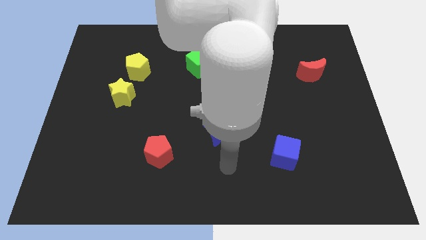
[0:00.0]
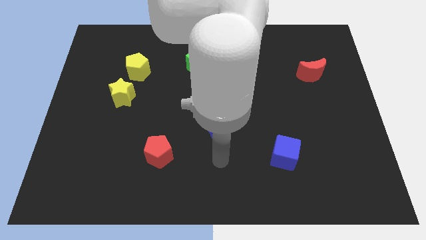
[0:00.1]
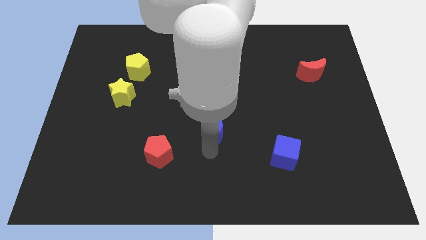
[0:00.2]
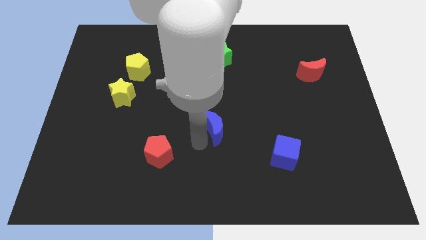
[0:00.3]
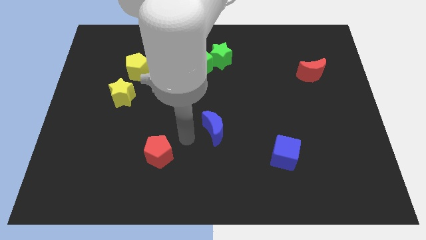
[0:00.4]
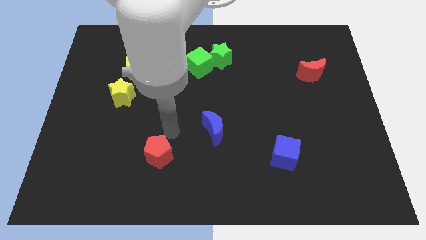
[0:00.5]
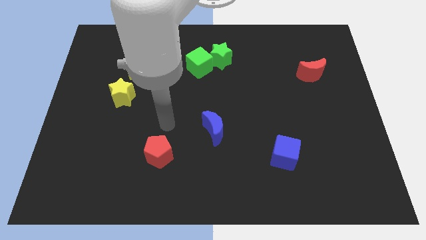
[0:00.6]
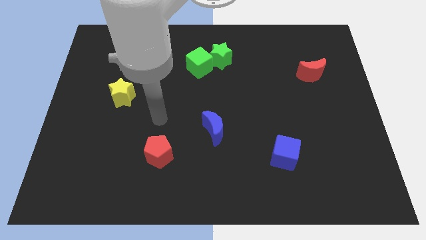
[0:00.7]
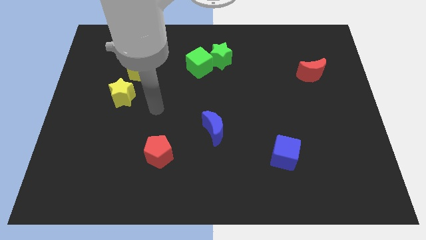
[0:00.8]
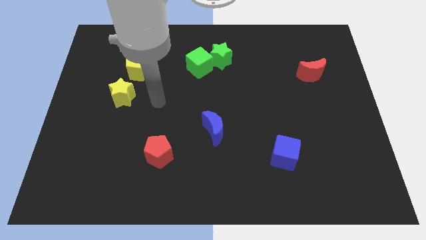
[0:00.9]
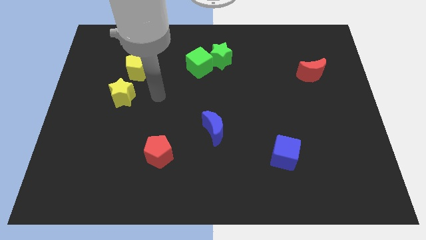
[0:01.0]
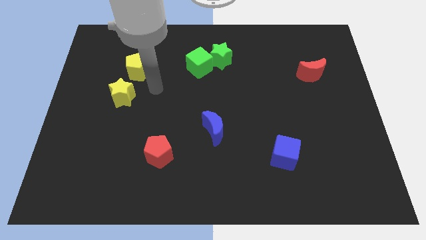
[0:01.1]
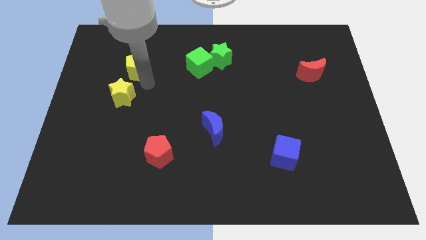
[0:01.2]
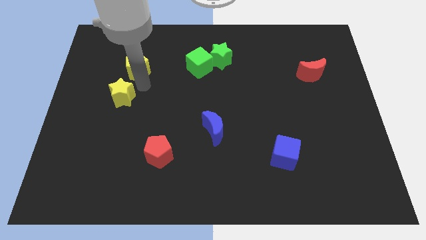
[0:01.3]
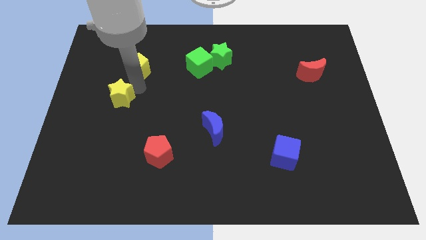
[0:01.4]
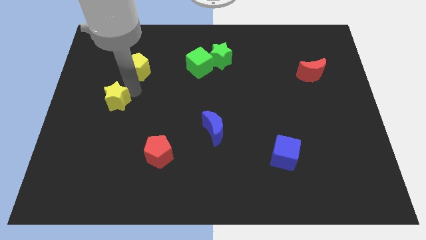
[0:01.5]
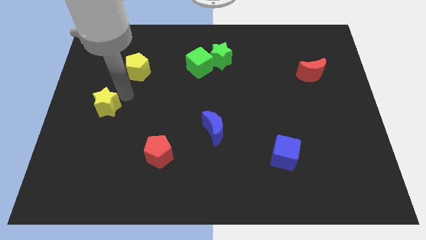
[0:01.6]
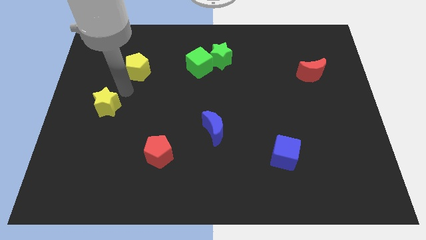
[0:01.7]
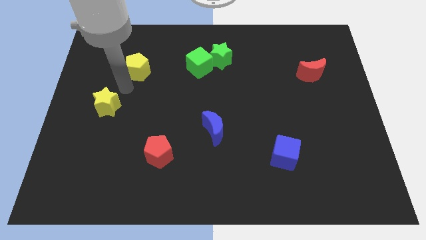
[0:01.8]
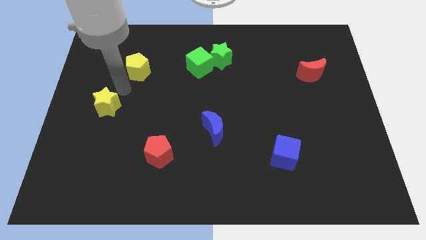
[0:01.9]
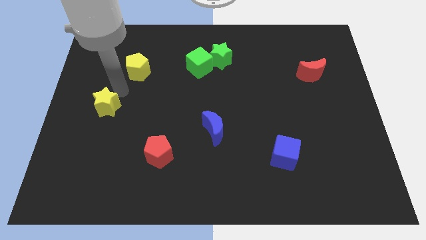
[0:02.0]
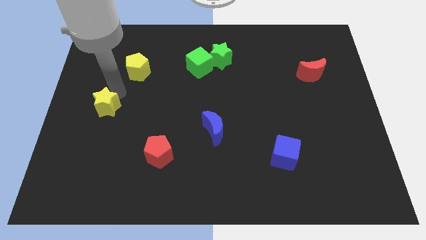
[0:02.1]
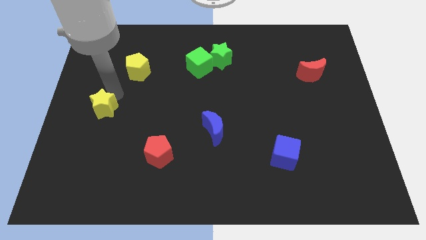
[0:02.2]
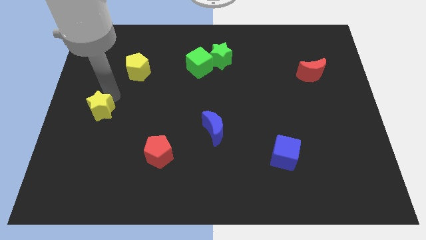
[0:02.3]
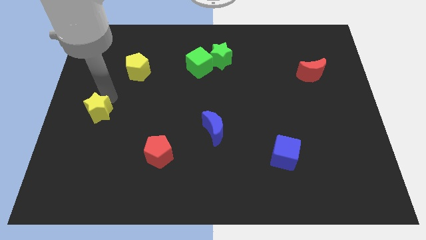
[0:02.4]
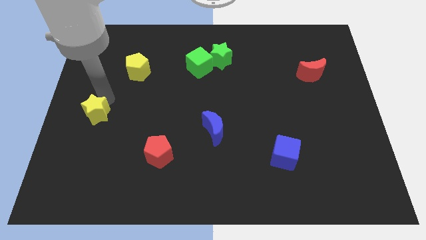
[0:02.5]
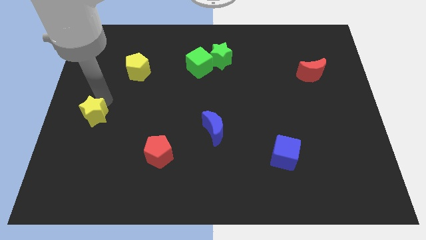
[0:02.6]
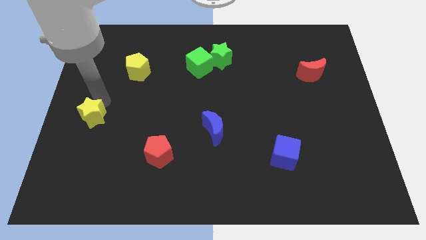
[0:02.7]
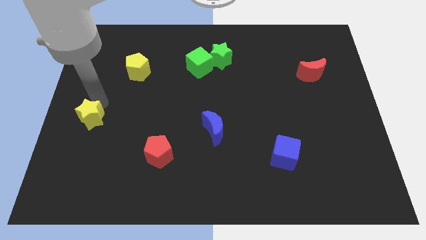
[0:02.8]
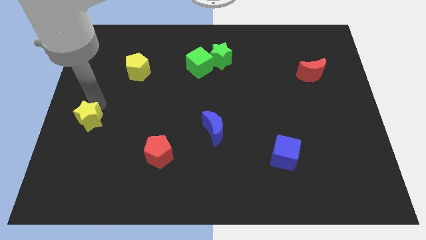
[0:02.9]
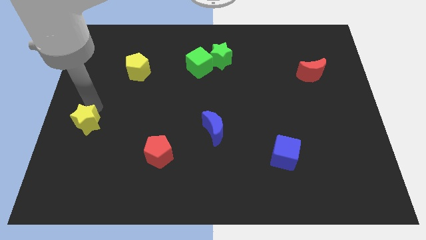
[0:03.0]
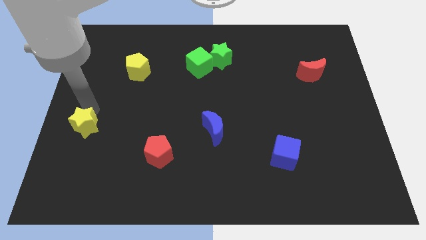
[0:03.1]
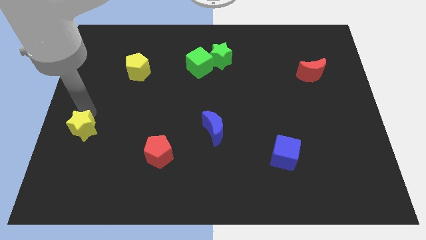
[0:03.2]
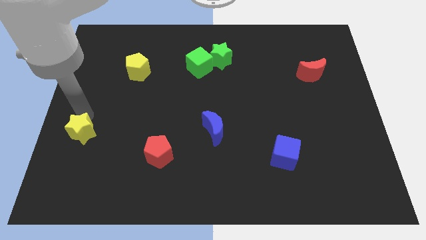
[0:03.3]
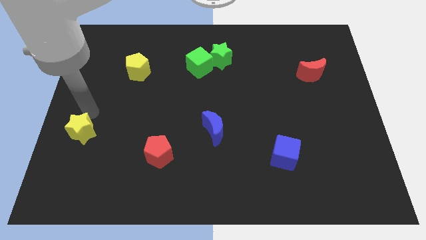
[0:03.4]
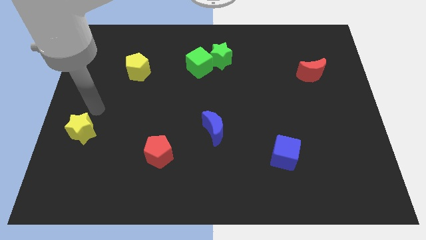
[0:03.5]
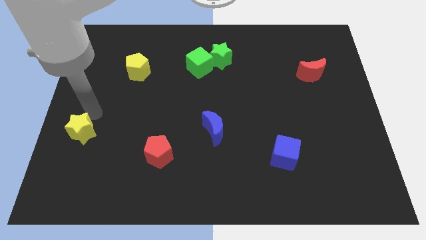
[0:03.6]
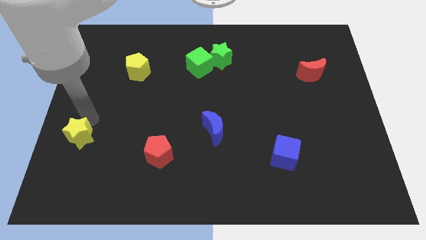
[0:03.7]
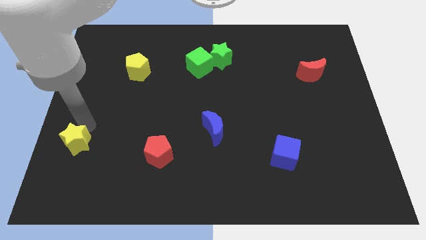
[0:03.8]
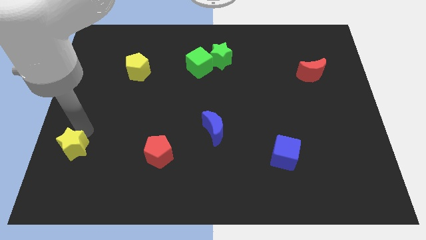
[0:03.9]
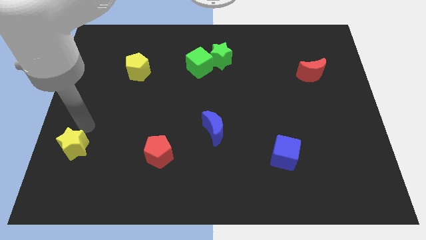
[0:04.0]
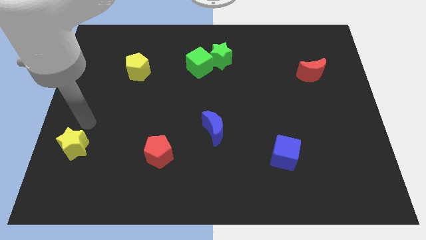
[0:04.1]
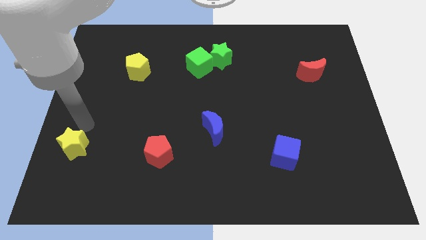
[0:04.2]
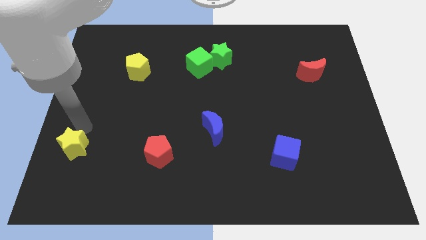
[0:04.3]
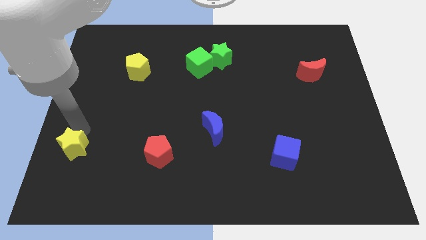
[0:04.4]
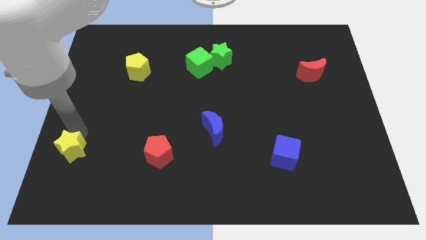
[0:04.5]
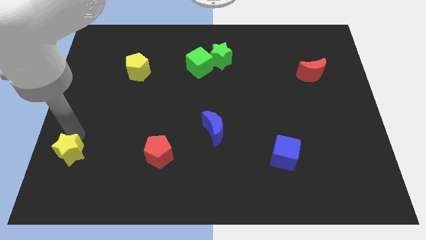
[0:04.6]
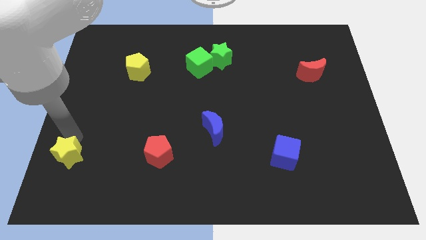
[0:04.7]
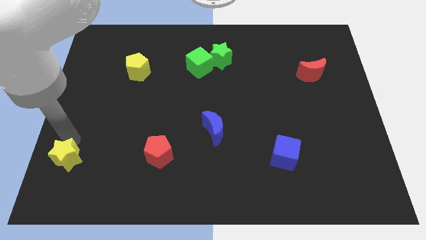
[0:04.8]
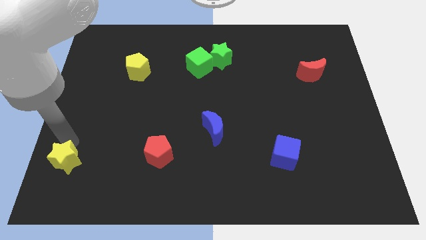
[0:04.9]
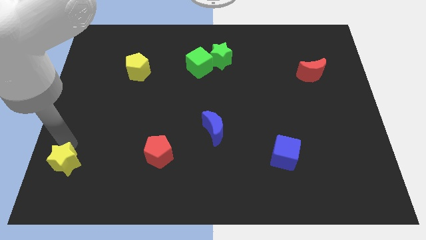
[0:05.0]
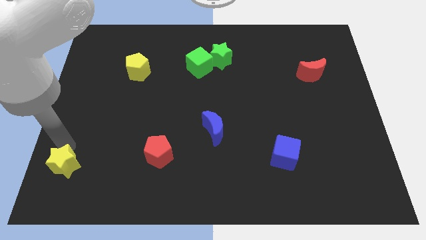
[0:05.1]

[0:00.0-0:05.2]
put the yellow star to the bottom left of the board

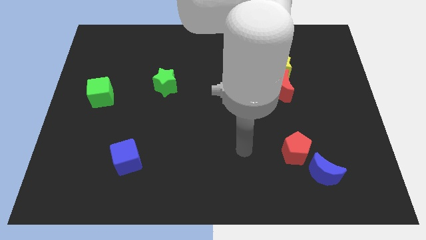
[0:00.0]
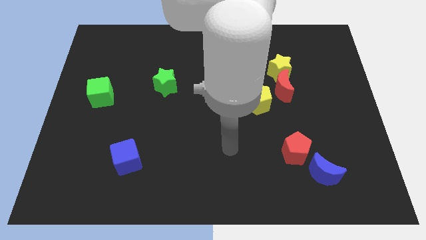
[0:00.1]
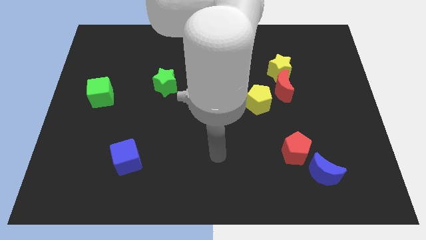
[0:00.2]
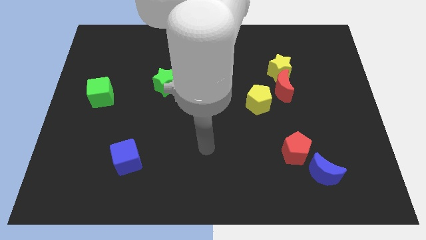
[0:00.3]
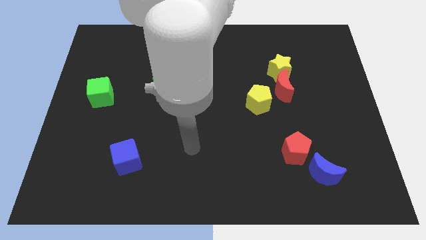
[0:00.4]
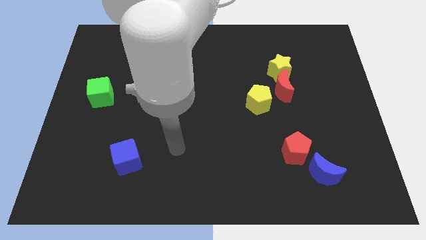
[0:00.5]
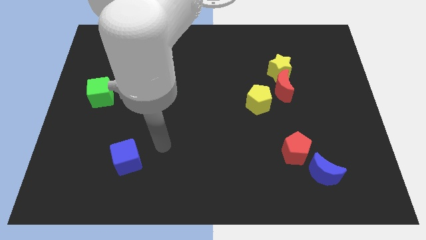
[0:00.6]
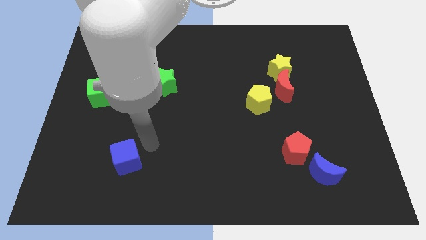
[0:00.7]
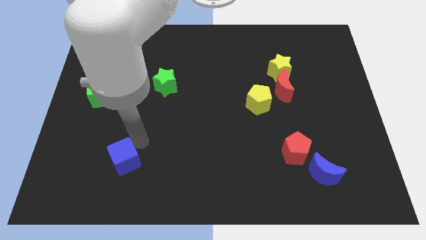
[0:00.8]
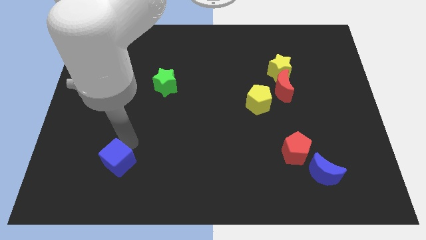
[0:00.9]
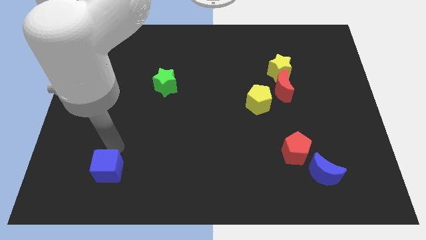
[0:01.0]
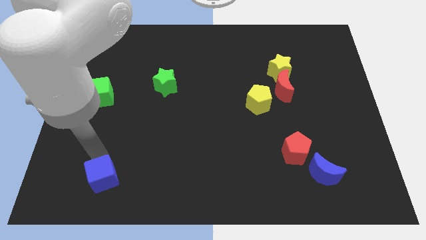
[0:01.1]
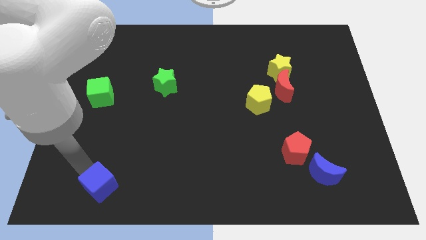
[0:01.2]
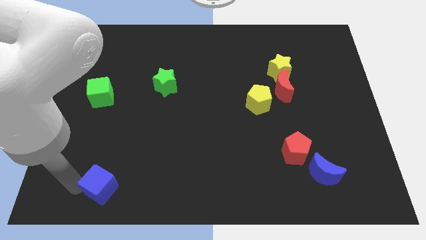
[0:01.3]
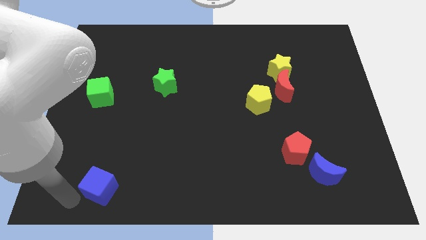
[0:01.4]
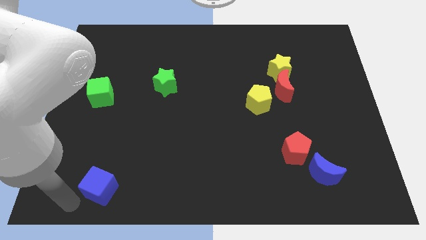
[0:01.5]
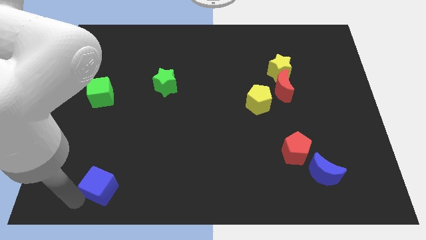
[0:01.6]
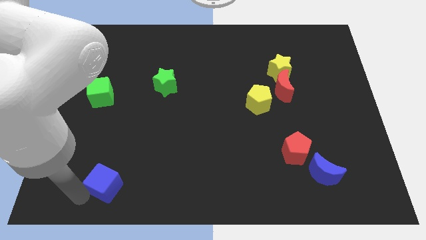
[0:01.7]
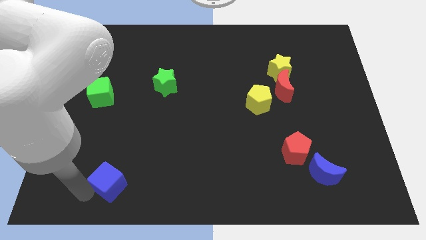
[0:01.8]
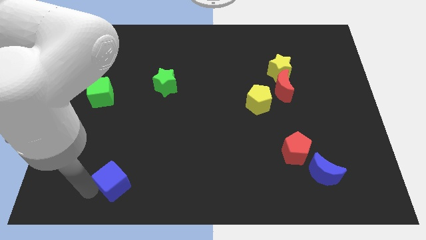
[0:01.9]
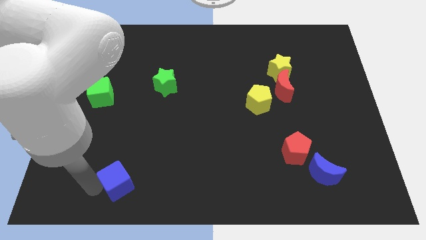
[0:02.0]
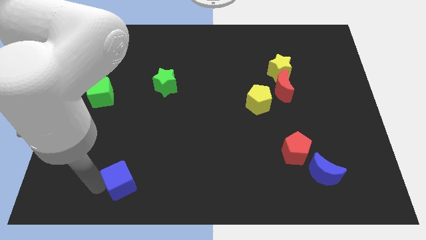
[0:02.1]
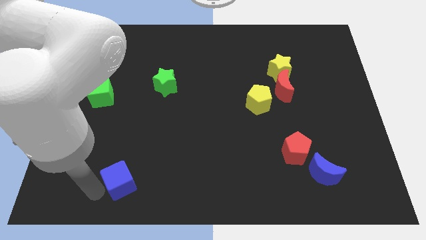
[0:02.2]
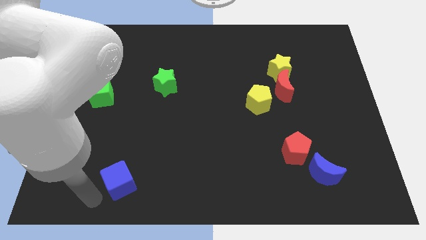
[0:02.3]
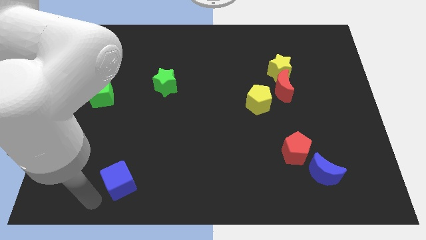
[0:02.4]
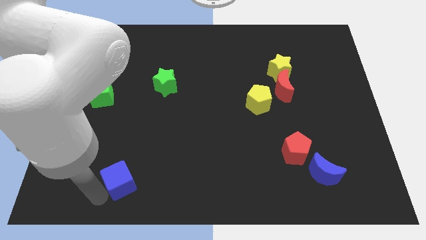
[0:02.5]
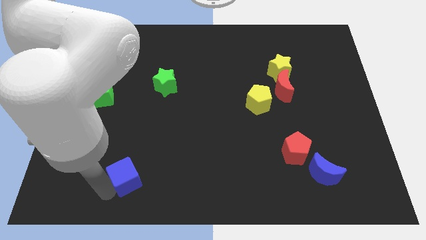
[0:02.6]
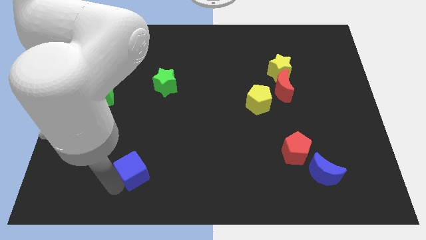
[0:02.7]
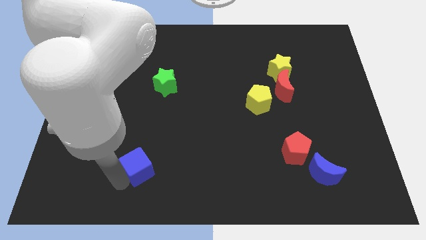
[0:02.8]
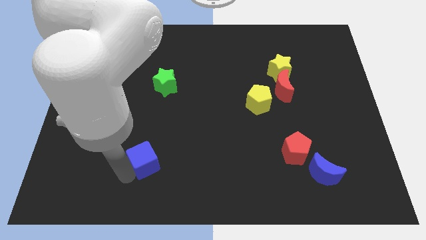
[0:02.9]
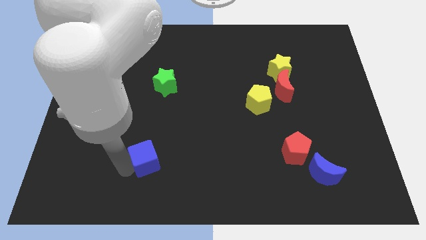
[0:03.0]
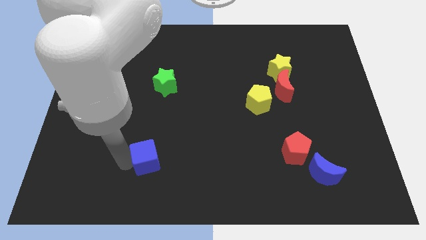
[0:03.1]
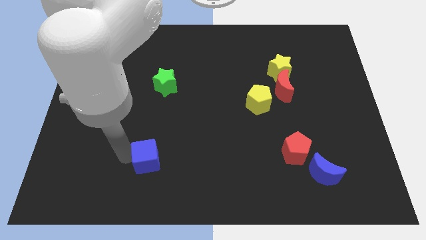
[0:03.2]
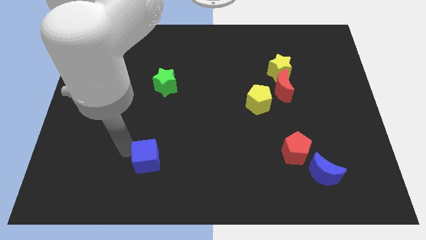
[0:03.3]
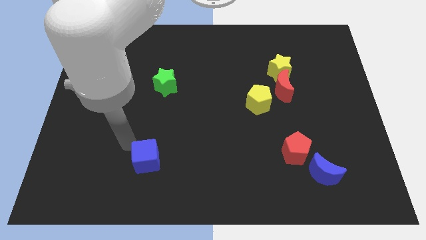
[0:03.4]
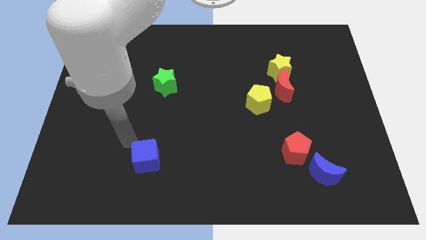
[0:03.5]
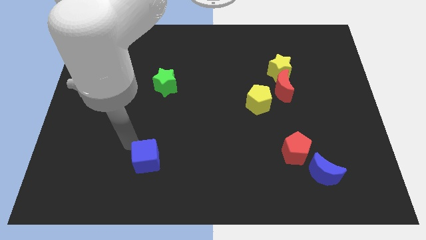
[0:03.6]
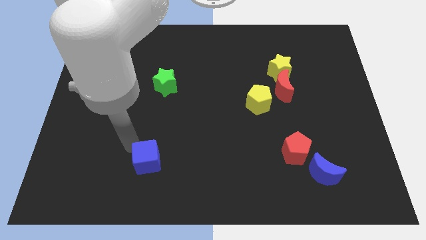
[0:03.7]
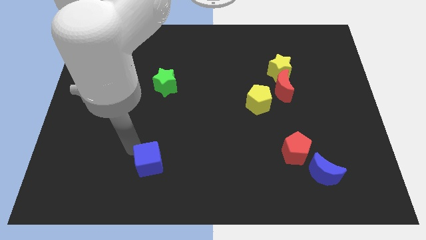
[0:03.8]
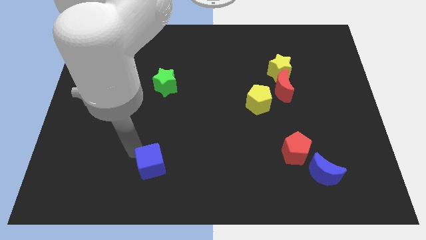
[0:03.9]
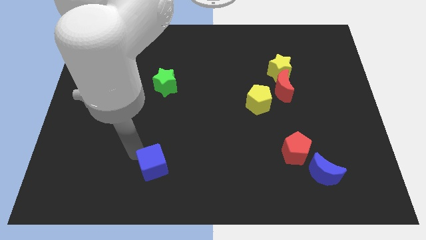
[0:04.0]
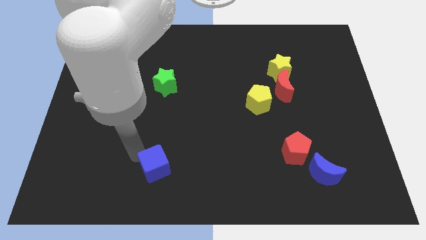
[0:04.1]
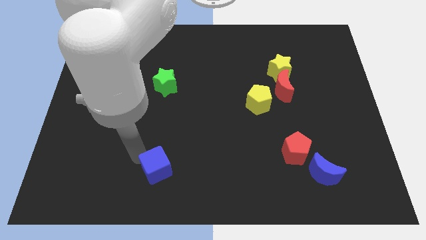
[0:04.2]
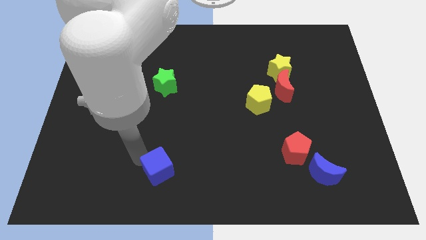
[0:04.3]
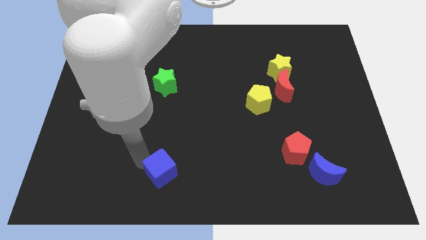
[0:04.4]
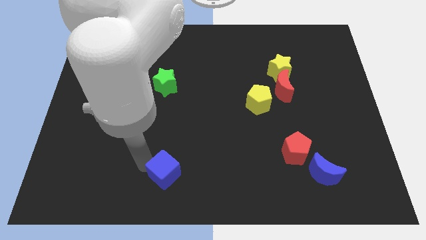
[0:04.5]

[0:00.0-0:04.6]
put the blue cube to the bottom
